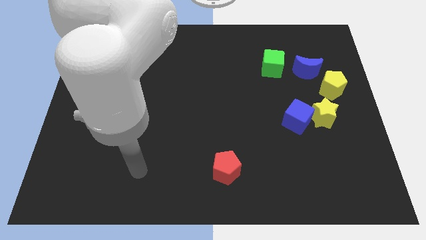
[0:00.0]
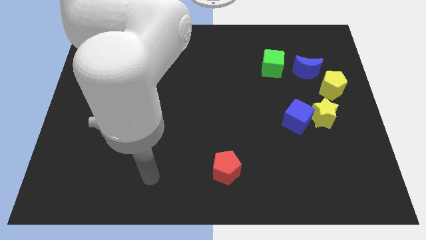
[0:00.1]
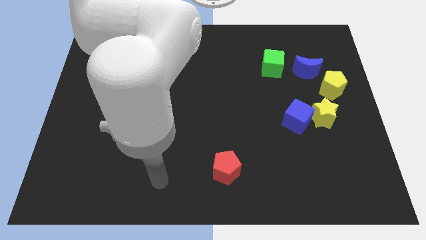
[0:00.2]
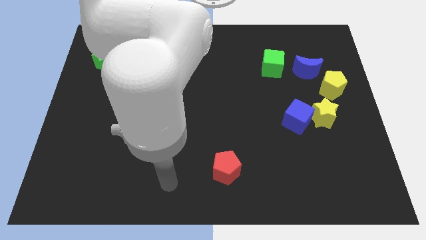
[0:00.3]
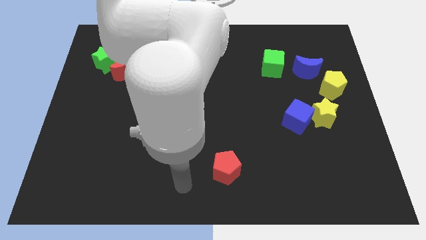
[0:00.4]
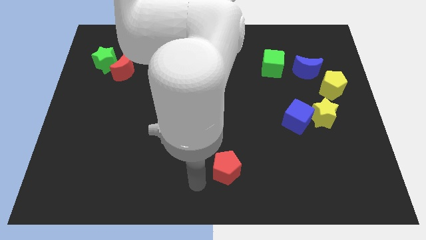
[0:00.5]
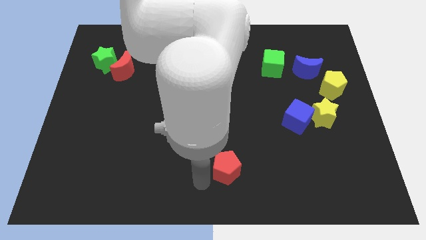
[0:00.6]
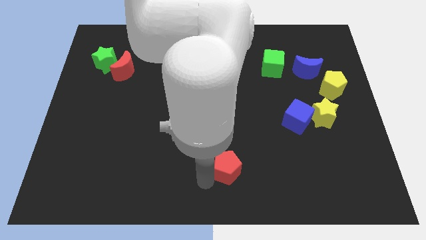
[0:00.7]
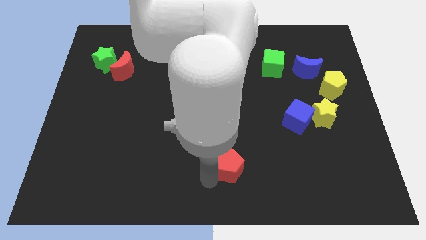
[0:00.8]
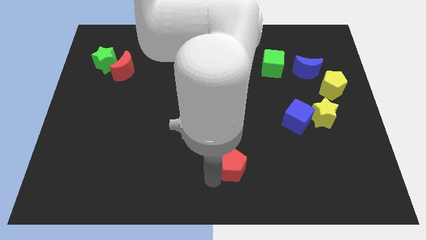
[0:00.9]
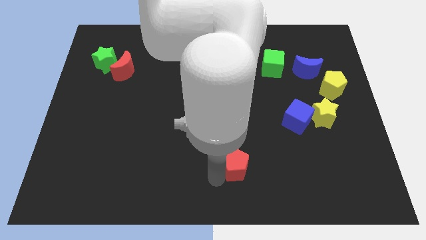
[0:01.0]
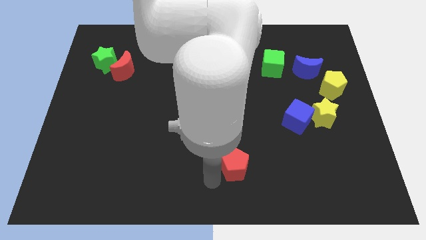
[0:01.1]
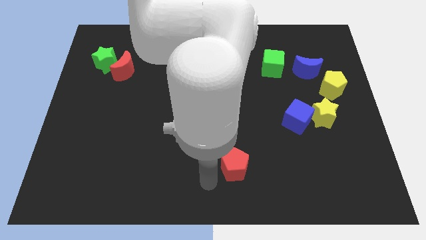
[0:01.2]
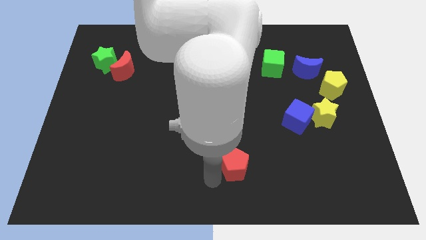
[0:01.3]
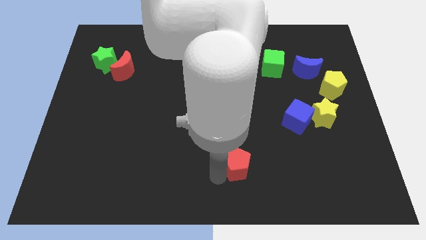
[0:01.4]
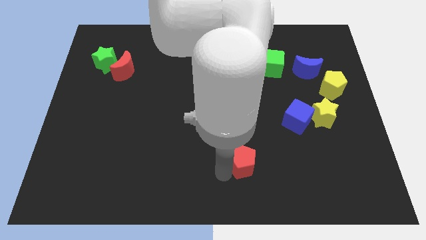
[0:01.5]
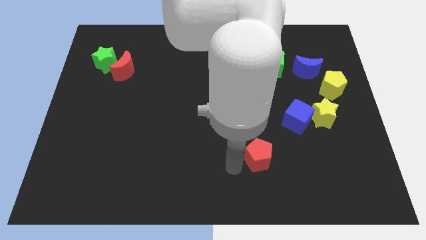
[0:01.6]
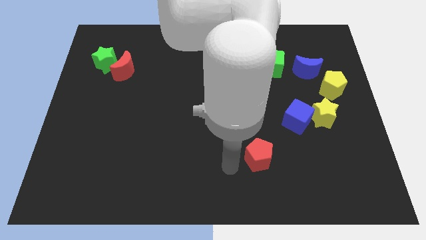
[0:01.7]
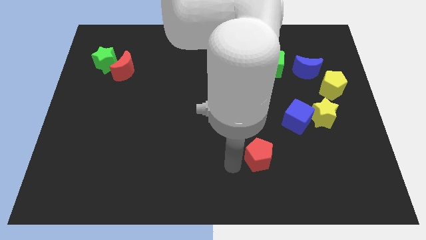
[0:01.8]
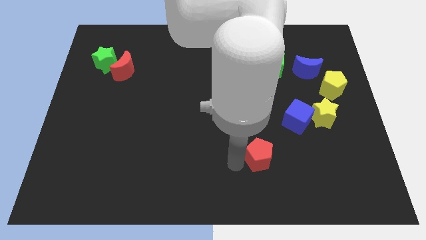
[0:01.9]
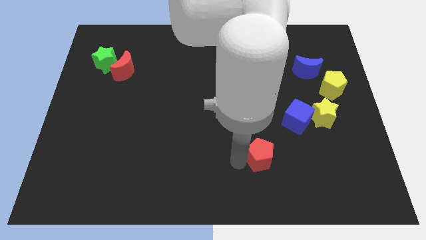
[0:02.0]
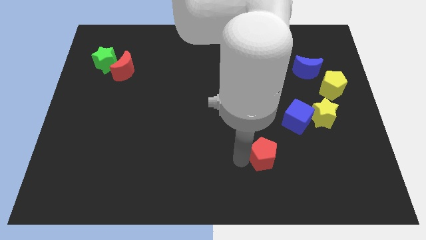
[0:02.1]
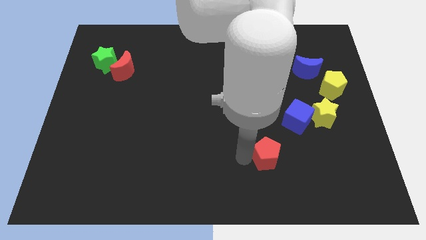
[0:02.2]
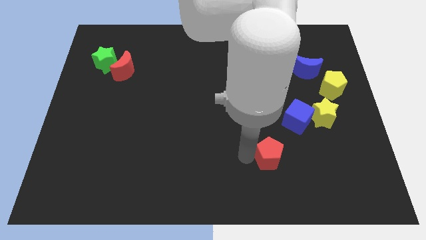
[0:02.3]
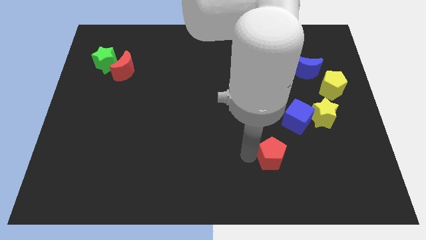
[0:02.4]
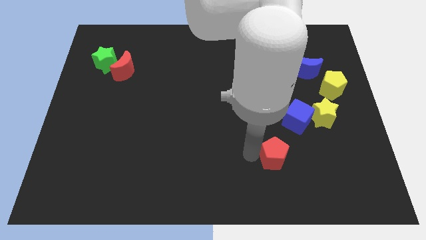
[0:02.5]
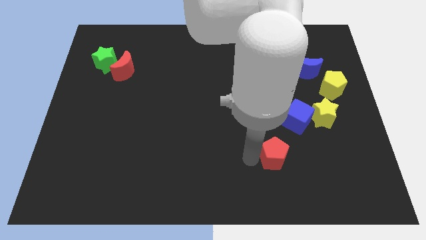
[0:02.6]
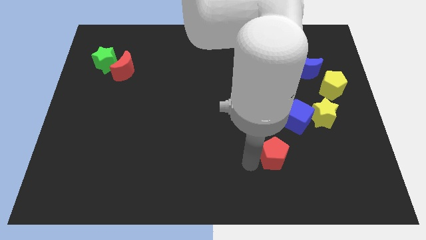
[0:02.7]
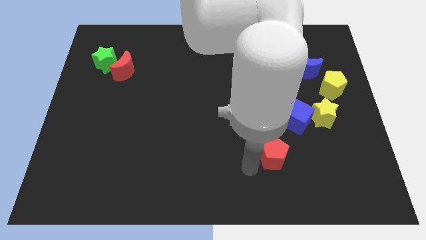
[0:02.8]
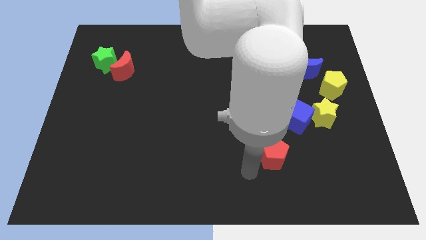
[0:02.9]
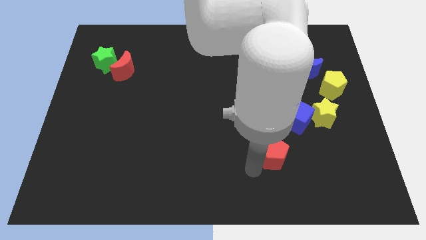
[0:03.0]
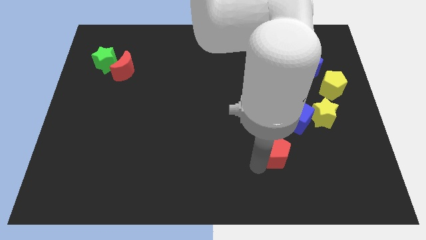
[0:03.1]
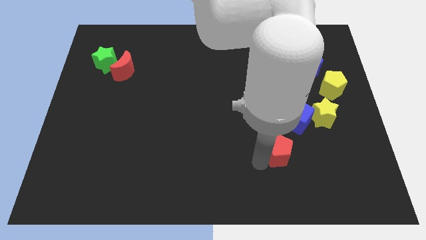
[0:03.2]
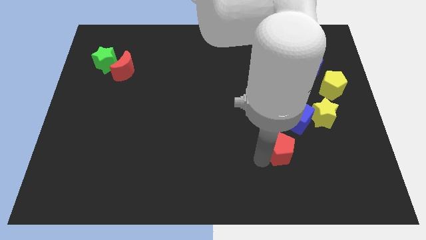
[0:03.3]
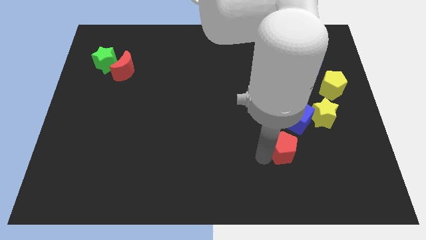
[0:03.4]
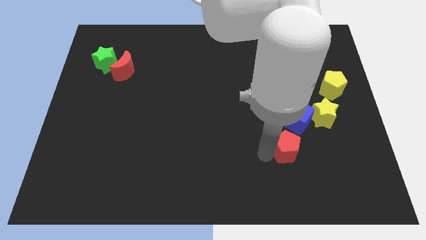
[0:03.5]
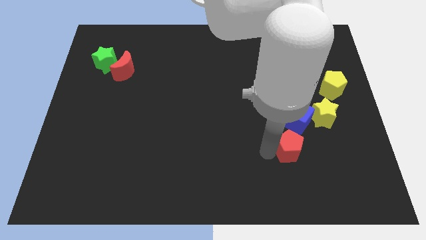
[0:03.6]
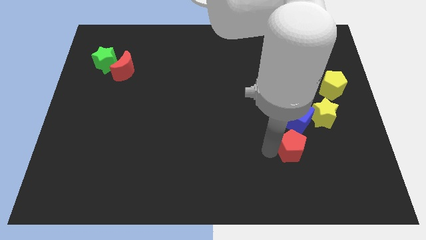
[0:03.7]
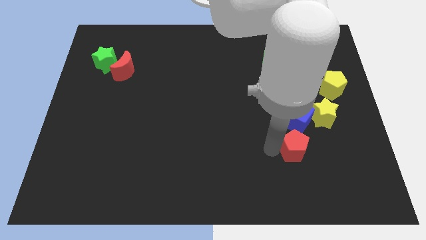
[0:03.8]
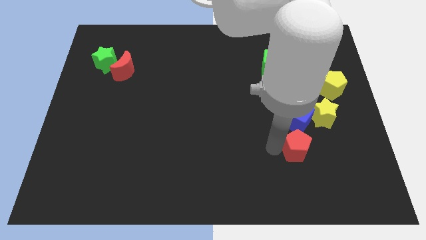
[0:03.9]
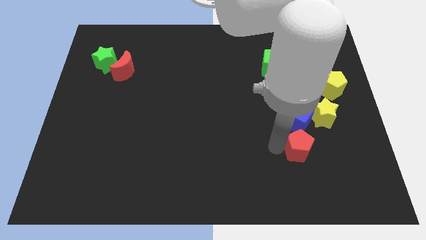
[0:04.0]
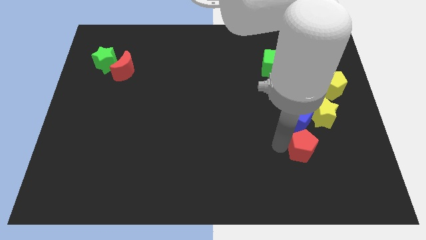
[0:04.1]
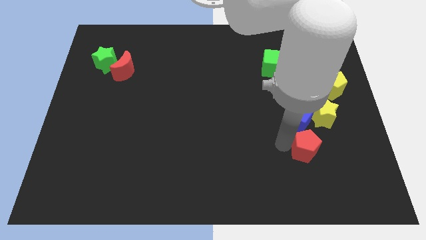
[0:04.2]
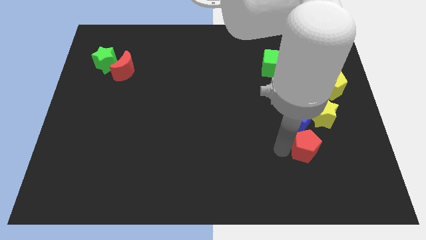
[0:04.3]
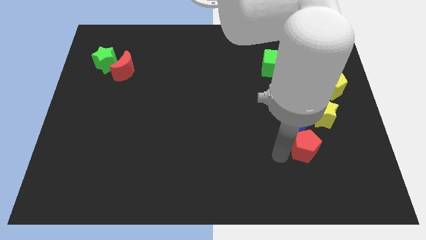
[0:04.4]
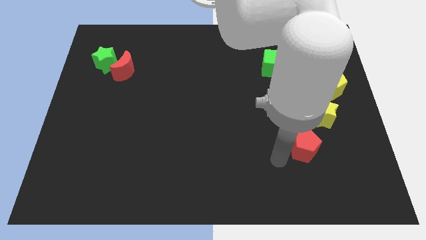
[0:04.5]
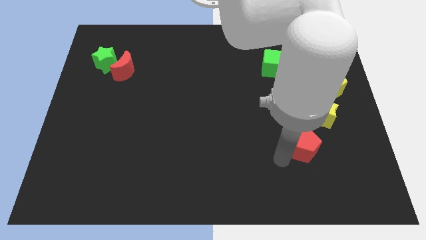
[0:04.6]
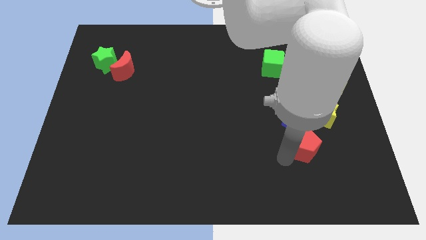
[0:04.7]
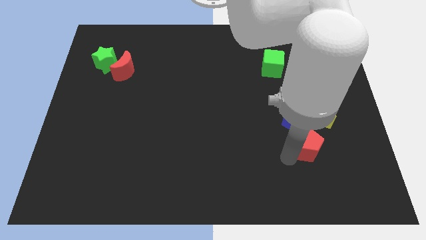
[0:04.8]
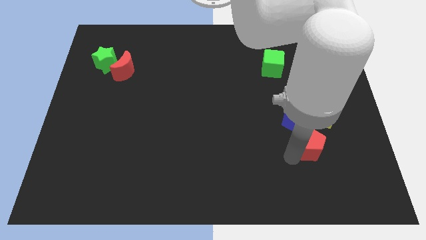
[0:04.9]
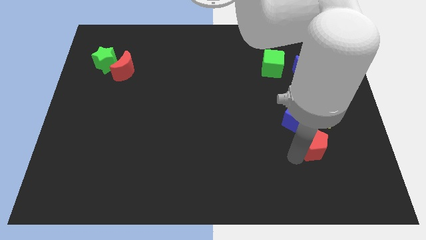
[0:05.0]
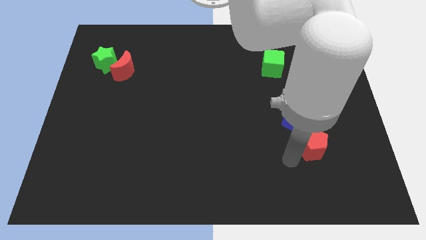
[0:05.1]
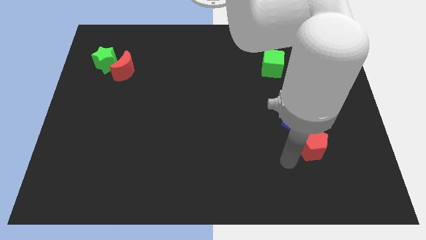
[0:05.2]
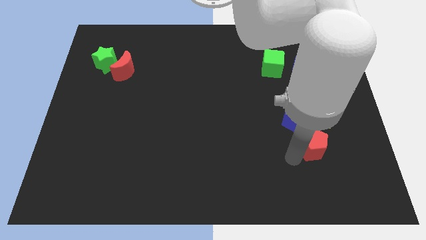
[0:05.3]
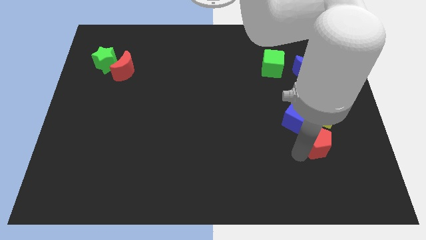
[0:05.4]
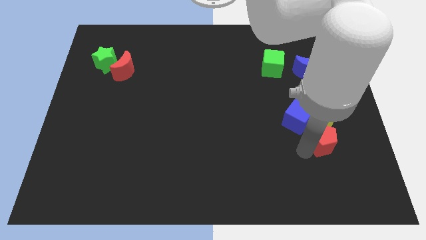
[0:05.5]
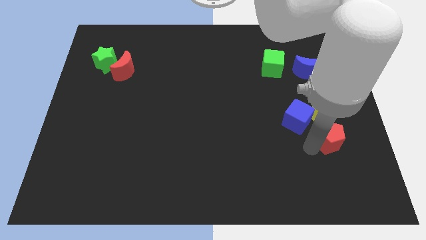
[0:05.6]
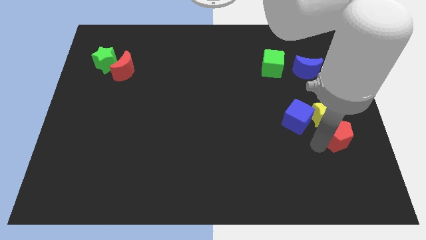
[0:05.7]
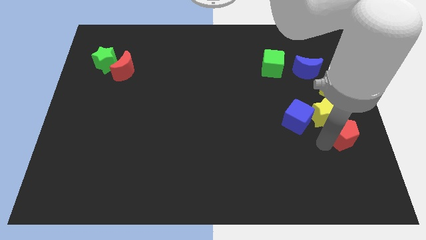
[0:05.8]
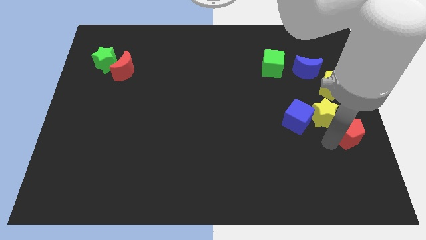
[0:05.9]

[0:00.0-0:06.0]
move the red pentagon to the center right

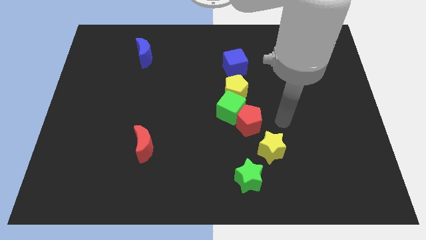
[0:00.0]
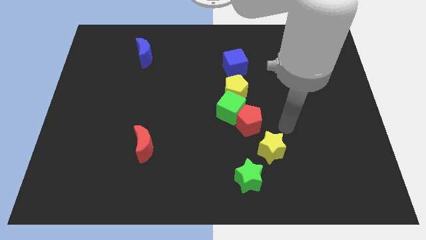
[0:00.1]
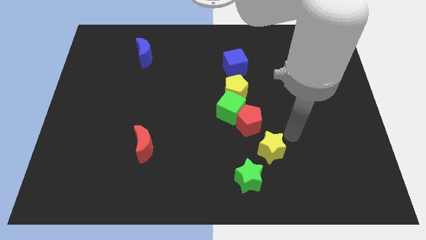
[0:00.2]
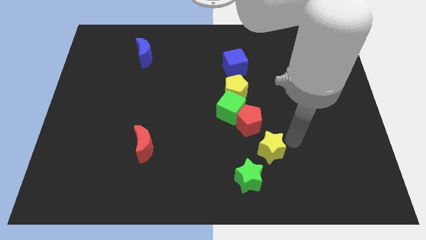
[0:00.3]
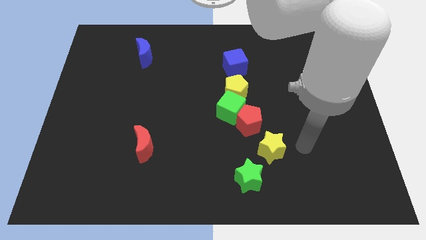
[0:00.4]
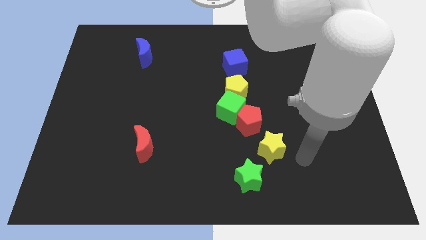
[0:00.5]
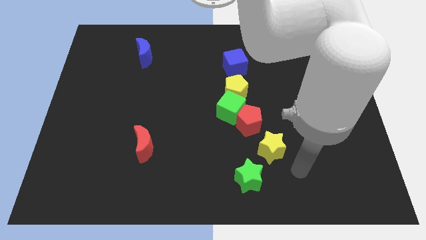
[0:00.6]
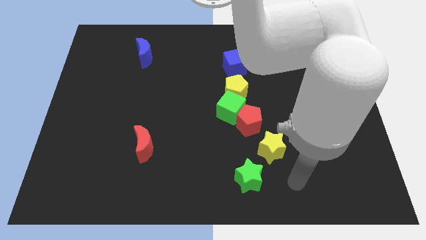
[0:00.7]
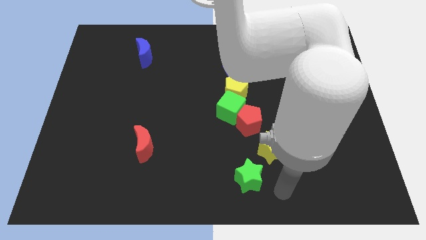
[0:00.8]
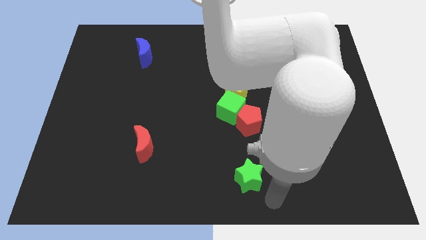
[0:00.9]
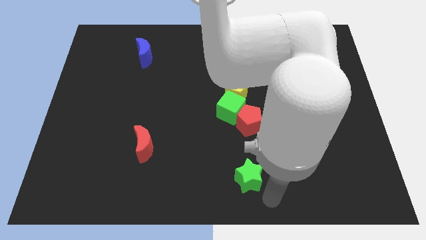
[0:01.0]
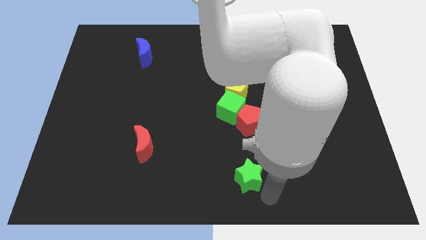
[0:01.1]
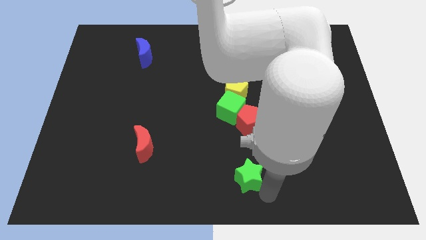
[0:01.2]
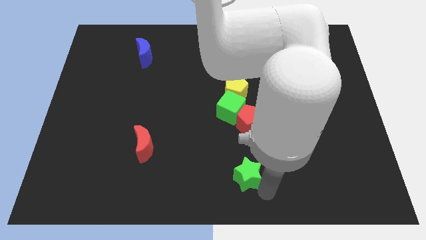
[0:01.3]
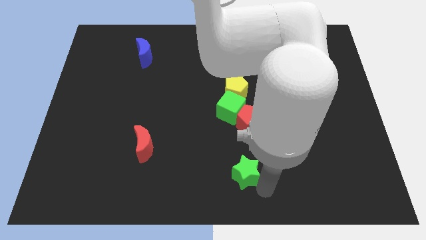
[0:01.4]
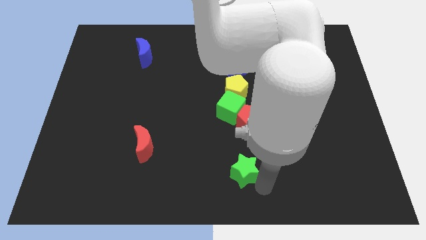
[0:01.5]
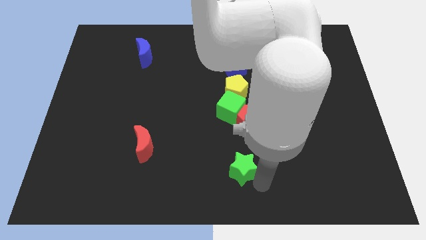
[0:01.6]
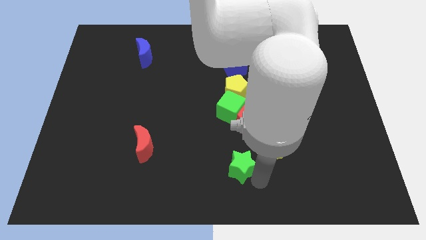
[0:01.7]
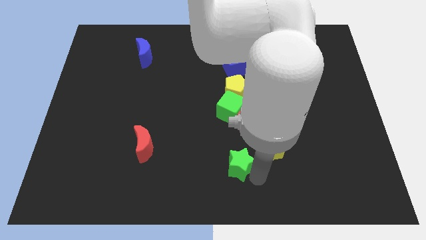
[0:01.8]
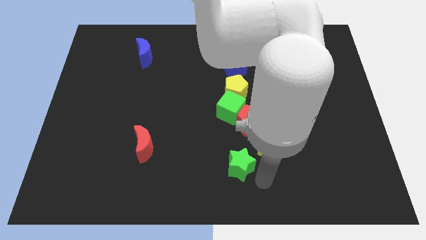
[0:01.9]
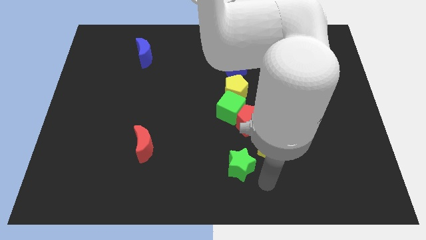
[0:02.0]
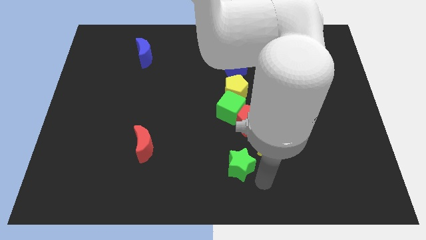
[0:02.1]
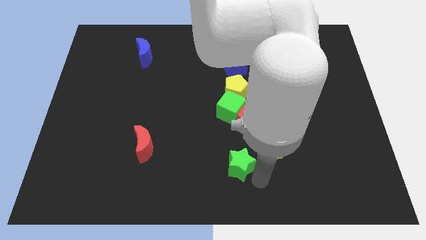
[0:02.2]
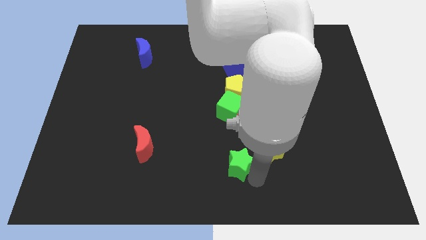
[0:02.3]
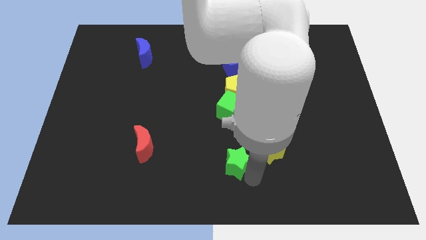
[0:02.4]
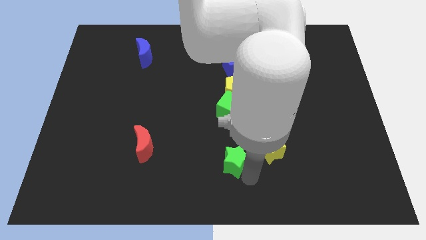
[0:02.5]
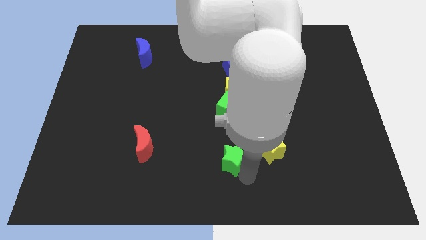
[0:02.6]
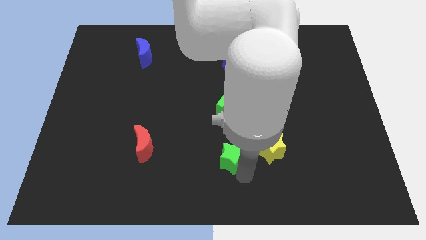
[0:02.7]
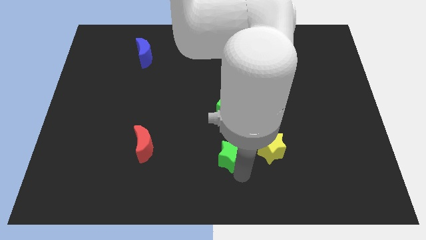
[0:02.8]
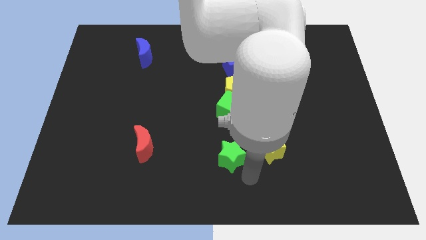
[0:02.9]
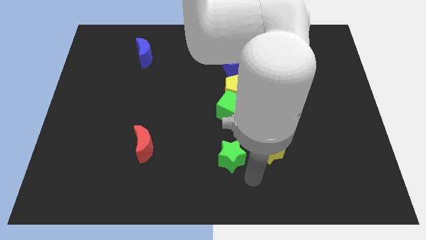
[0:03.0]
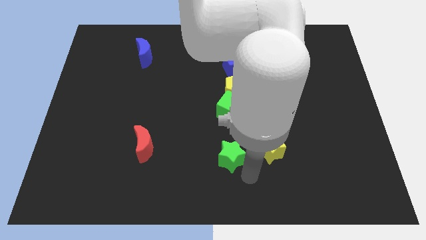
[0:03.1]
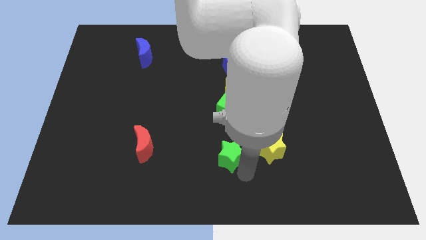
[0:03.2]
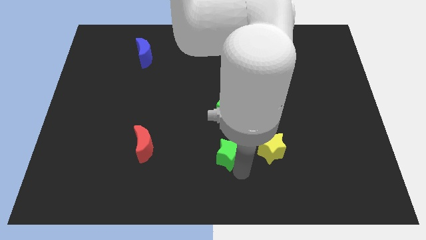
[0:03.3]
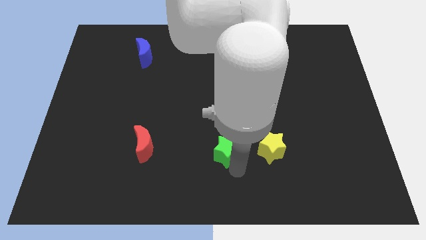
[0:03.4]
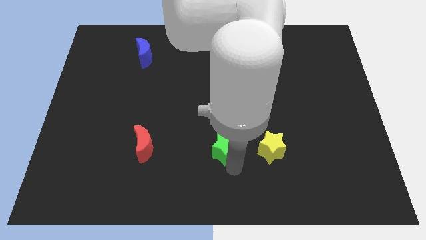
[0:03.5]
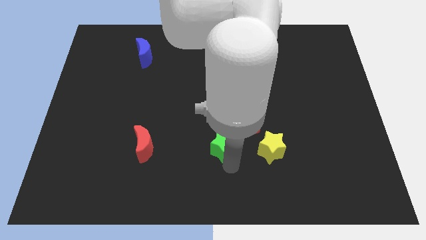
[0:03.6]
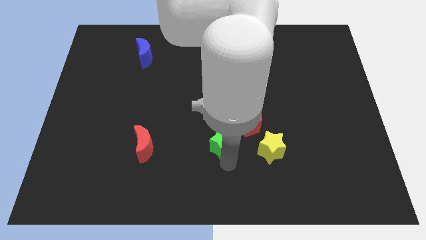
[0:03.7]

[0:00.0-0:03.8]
move the green star to the center of the board
